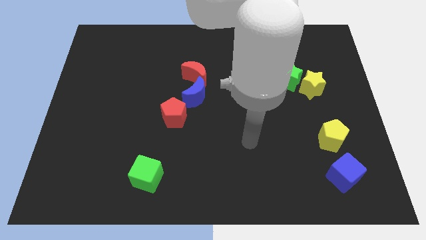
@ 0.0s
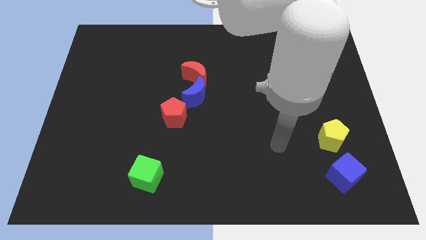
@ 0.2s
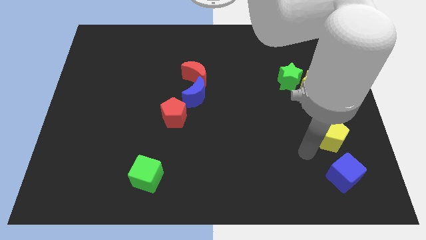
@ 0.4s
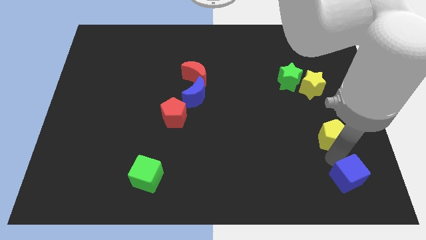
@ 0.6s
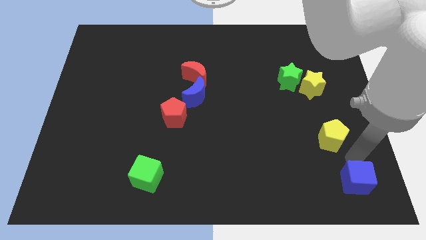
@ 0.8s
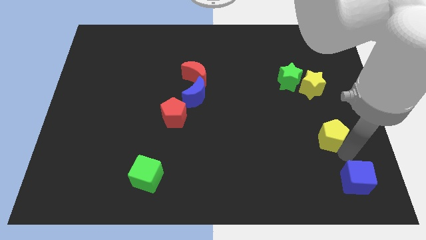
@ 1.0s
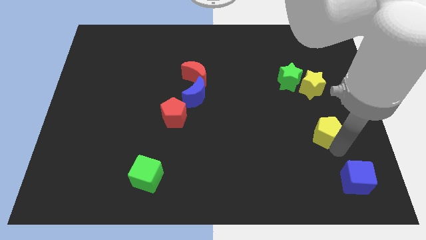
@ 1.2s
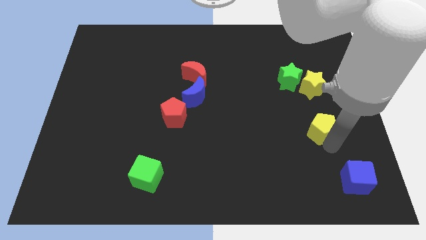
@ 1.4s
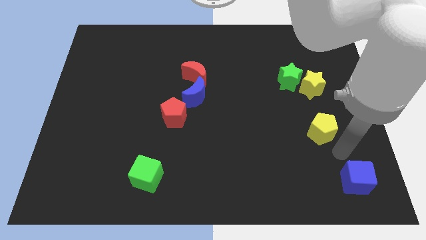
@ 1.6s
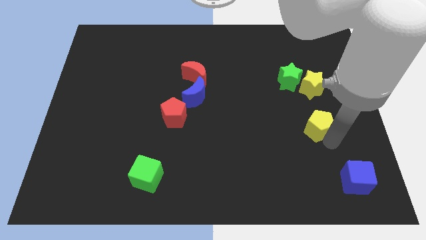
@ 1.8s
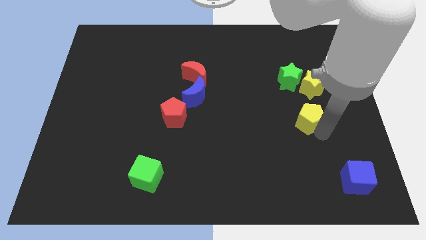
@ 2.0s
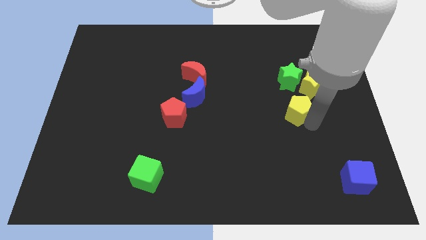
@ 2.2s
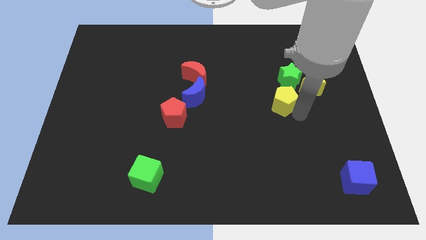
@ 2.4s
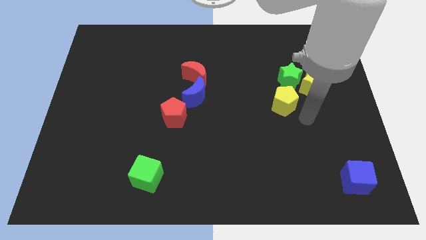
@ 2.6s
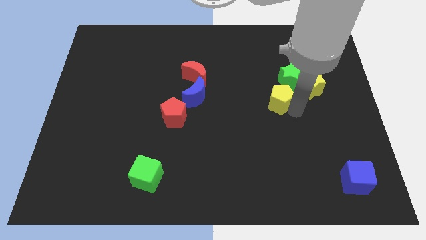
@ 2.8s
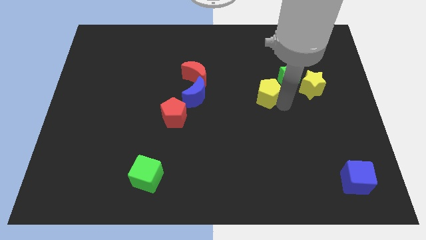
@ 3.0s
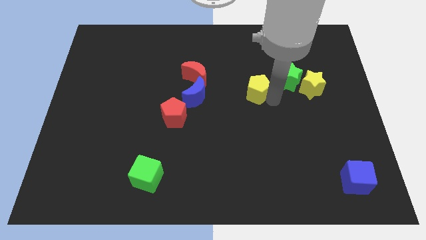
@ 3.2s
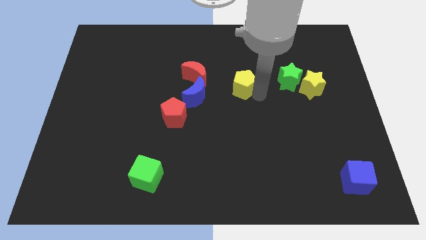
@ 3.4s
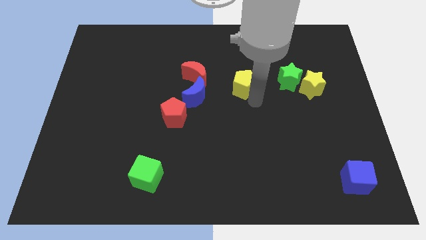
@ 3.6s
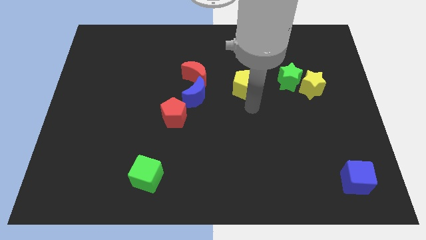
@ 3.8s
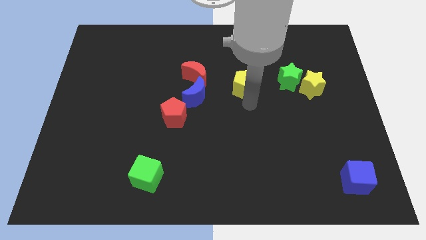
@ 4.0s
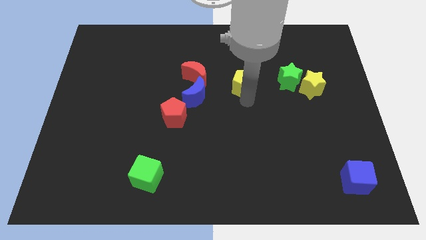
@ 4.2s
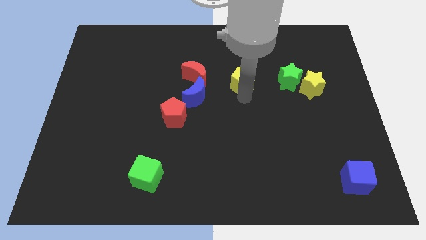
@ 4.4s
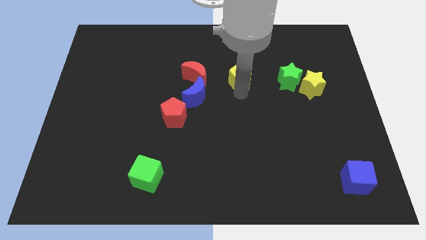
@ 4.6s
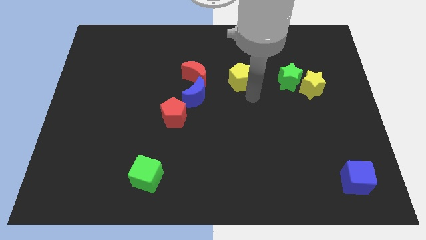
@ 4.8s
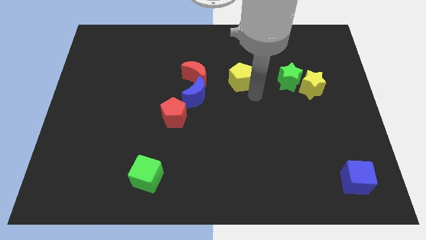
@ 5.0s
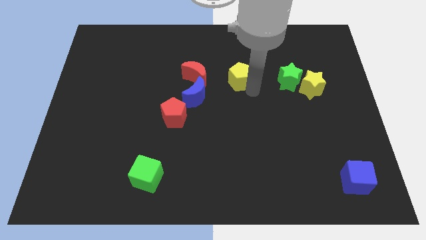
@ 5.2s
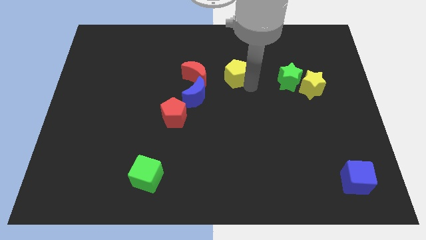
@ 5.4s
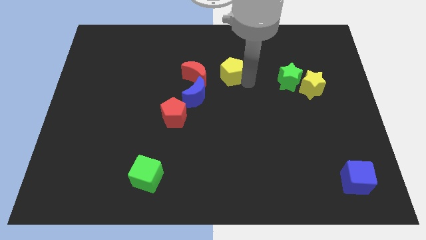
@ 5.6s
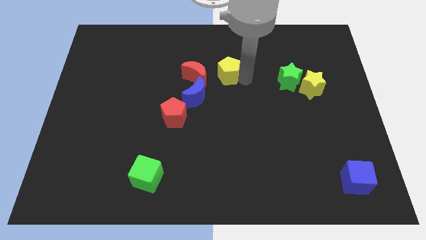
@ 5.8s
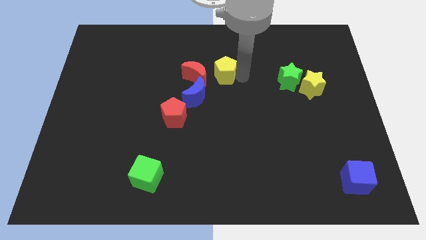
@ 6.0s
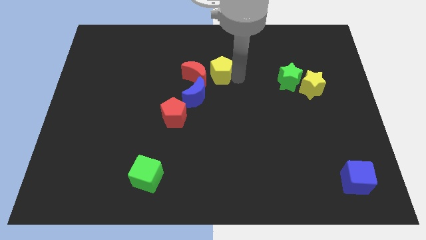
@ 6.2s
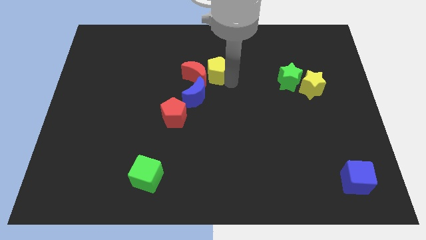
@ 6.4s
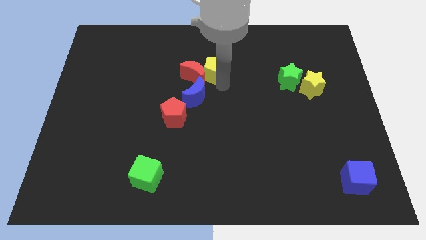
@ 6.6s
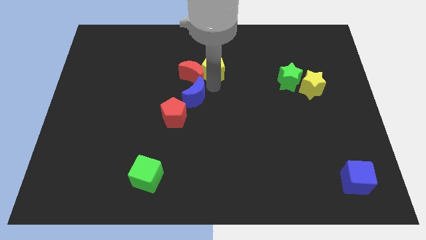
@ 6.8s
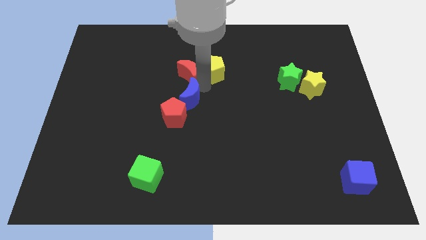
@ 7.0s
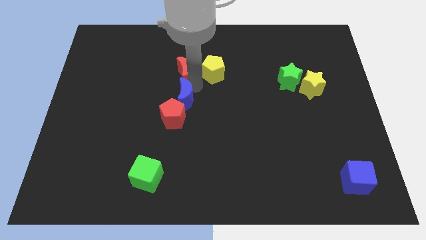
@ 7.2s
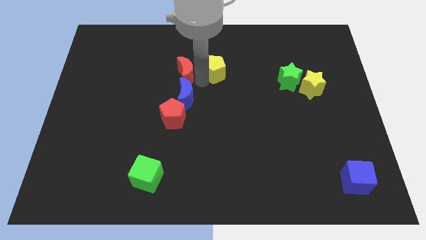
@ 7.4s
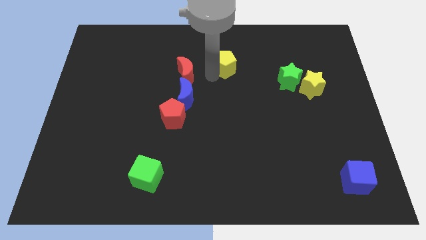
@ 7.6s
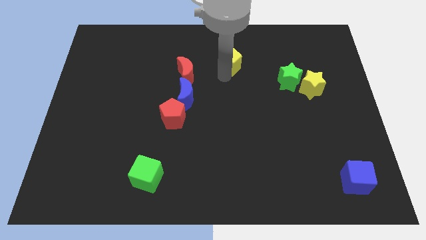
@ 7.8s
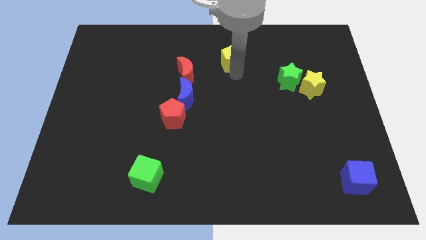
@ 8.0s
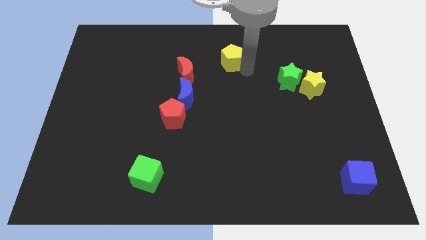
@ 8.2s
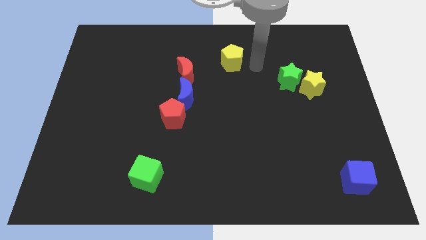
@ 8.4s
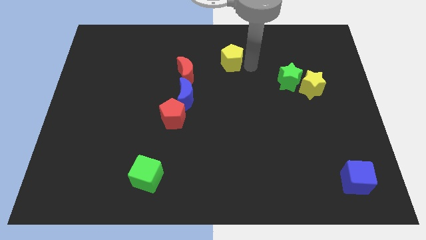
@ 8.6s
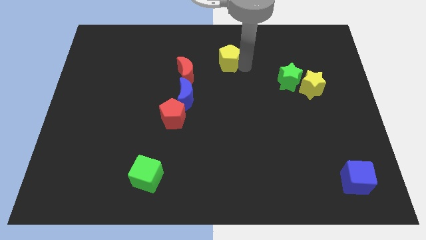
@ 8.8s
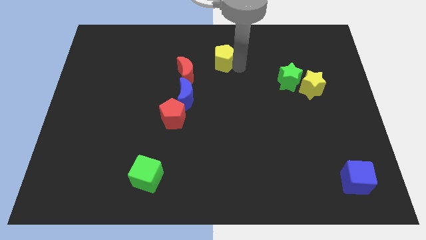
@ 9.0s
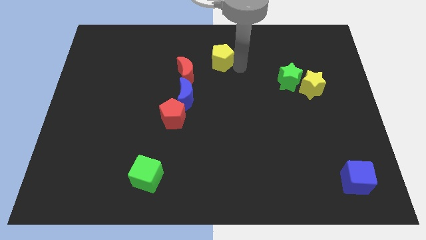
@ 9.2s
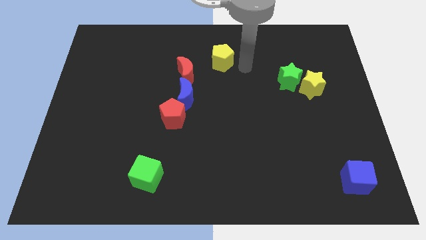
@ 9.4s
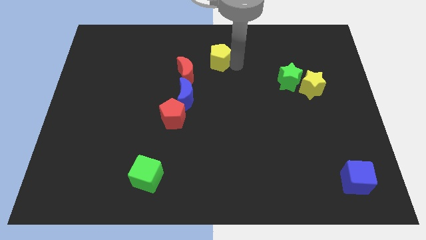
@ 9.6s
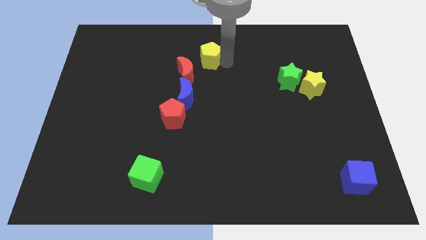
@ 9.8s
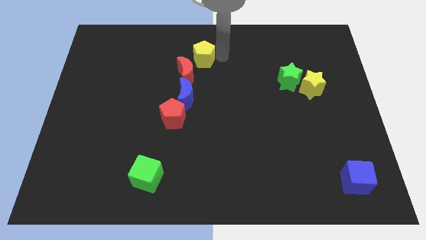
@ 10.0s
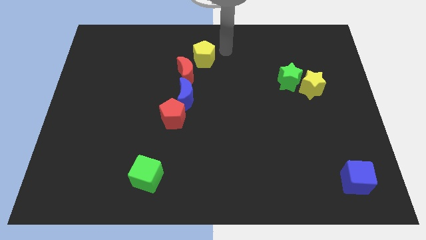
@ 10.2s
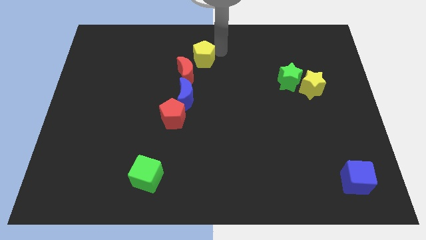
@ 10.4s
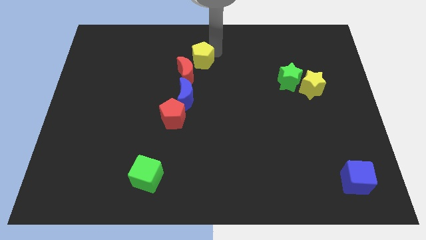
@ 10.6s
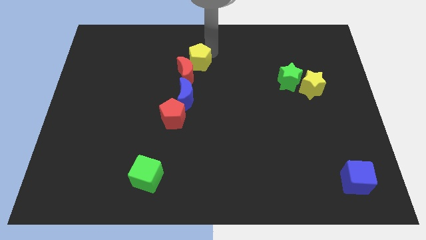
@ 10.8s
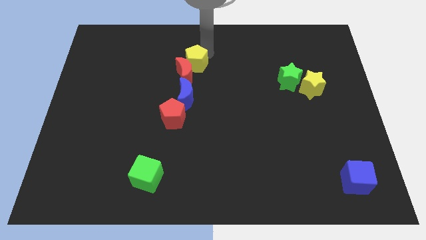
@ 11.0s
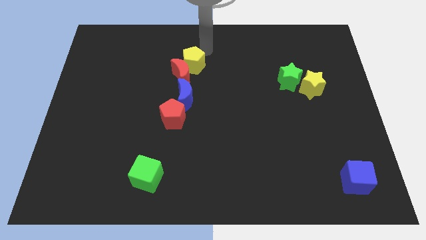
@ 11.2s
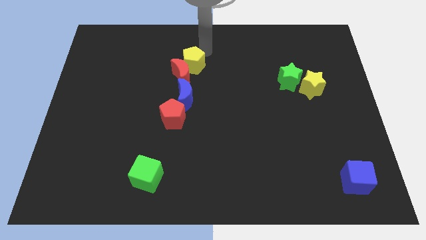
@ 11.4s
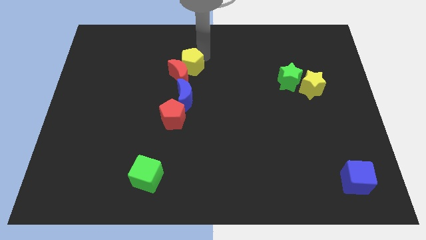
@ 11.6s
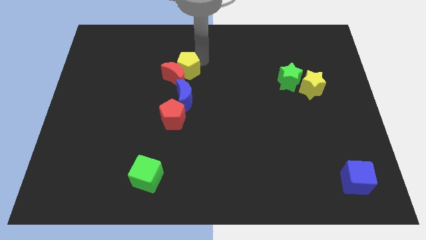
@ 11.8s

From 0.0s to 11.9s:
push the yellow pentagon to the top of the red pentagon

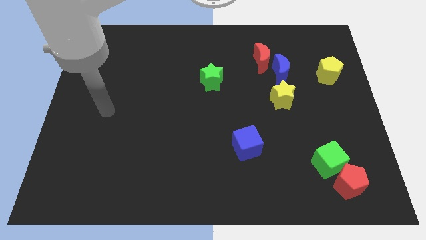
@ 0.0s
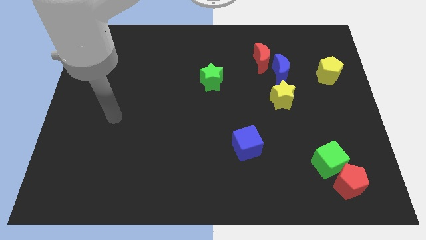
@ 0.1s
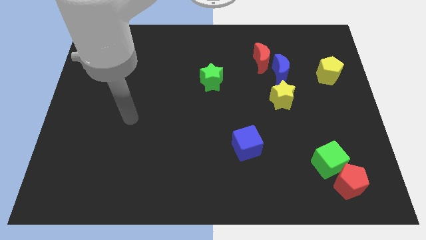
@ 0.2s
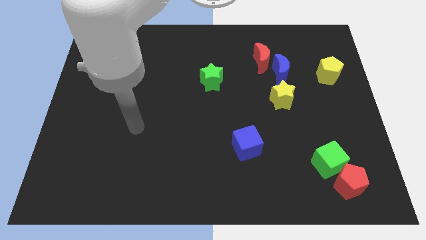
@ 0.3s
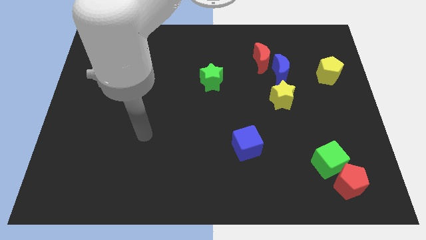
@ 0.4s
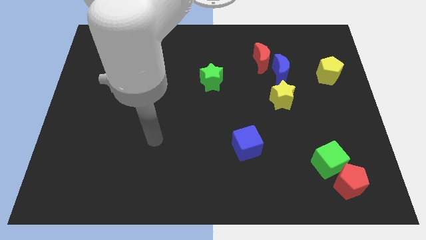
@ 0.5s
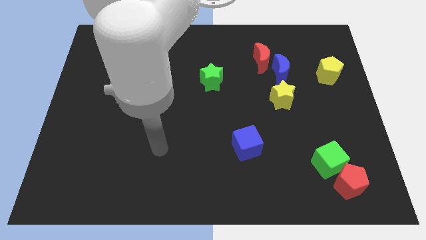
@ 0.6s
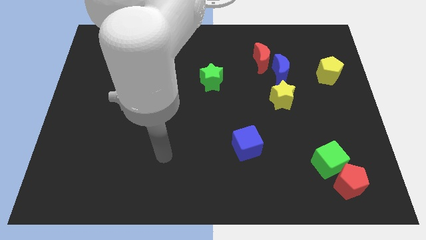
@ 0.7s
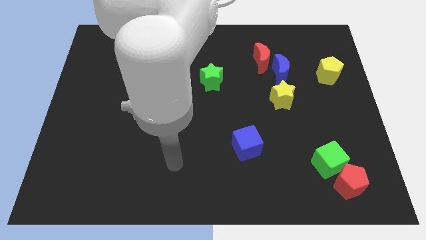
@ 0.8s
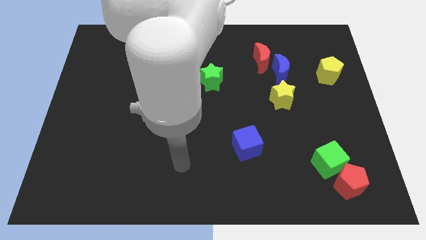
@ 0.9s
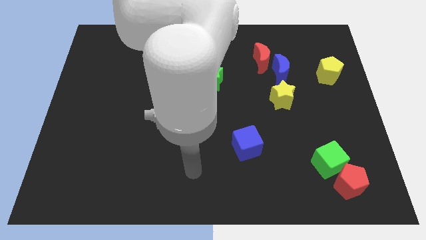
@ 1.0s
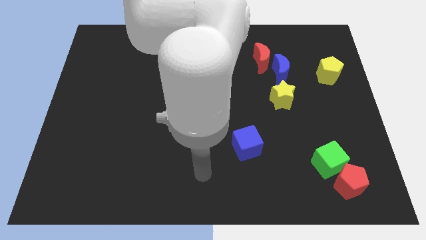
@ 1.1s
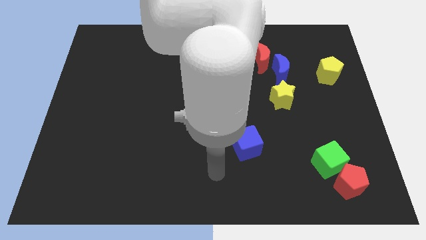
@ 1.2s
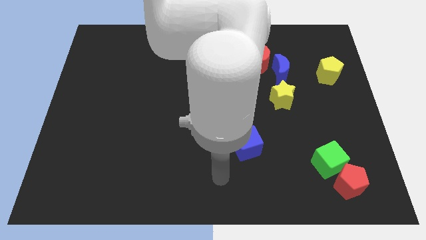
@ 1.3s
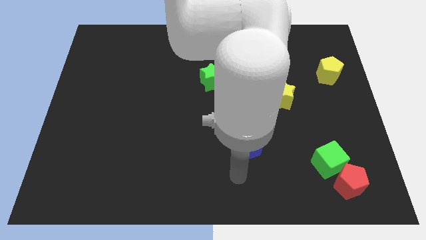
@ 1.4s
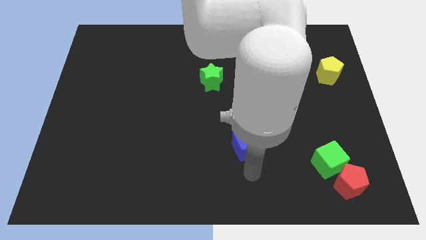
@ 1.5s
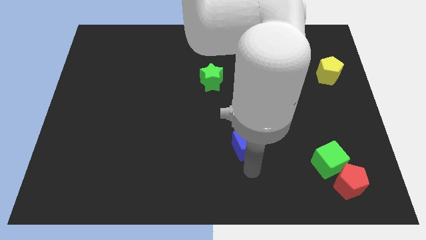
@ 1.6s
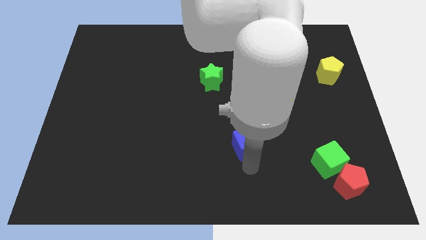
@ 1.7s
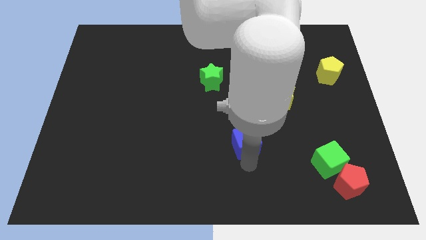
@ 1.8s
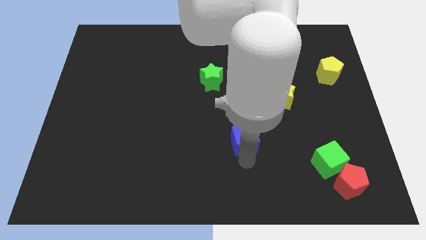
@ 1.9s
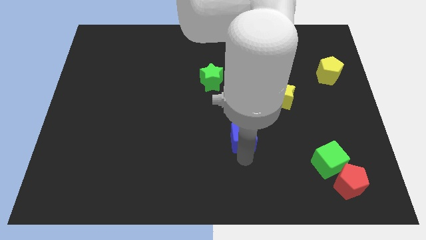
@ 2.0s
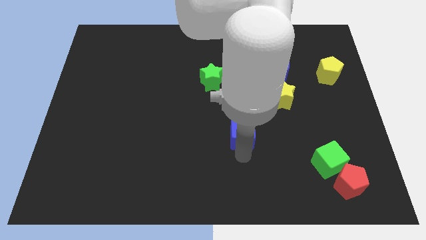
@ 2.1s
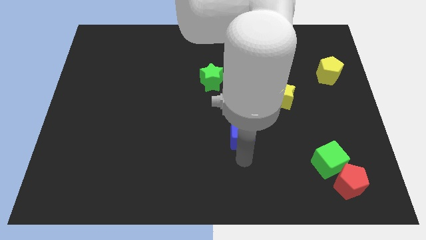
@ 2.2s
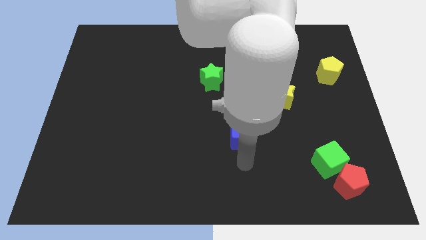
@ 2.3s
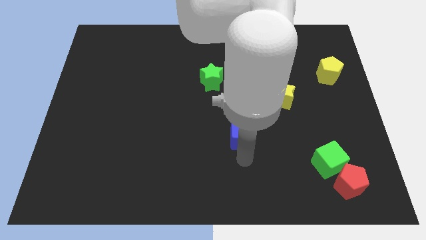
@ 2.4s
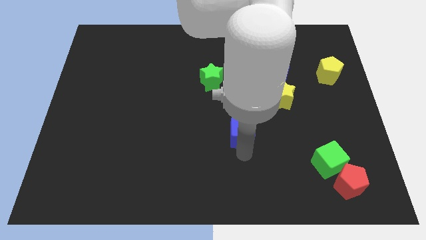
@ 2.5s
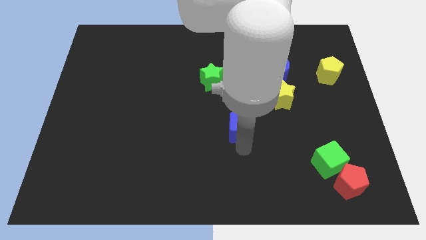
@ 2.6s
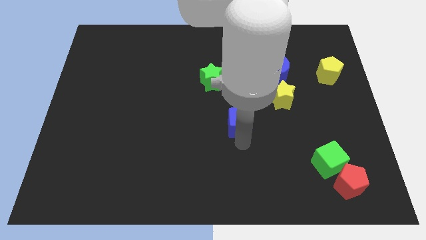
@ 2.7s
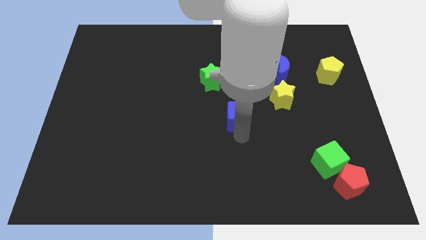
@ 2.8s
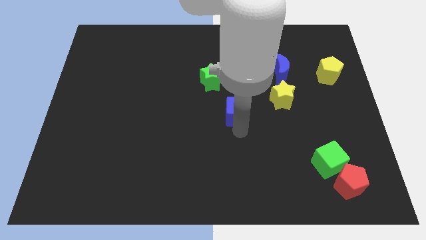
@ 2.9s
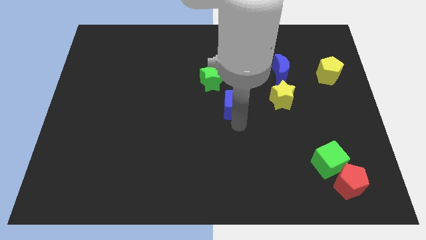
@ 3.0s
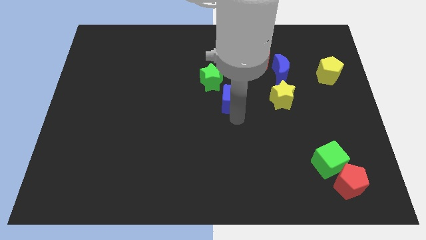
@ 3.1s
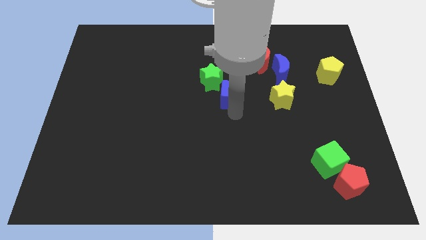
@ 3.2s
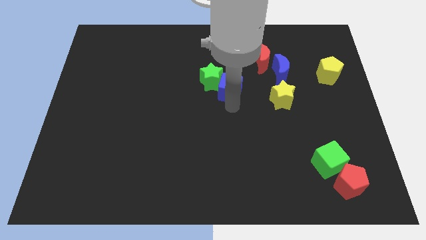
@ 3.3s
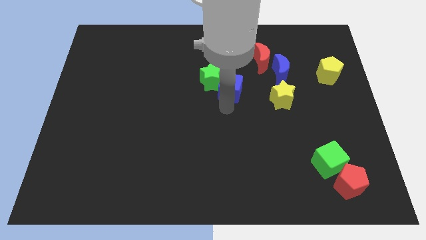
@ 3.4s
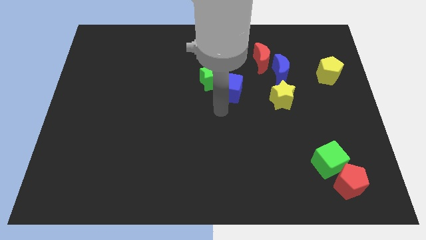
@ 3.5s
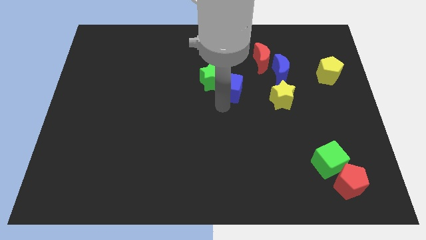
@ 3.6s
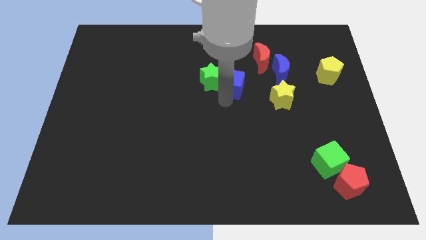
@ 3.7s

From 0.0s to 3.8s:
slide the blue cube left of the blue moon
